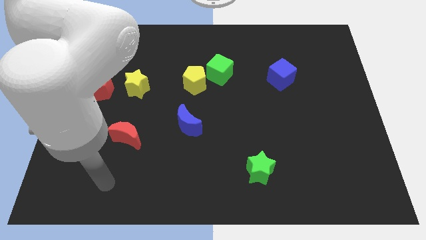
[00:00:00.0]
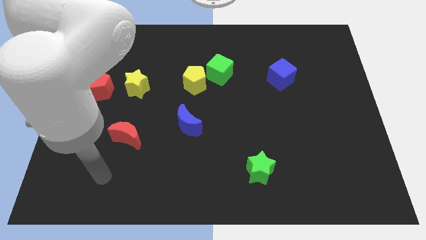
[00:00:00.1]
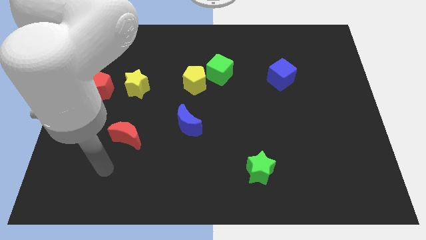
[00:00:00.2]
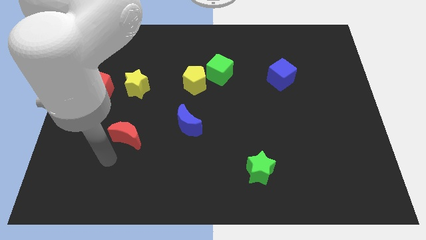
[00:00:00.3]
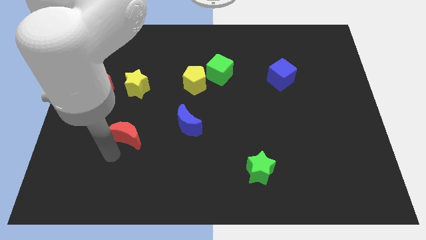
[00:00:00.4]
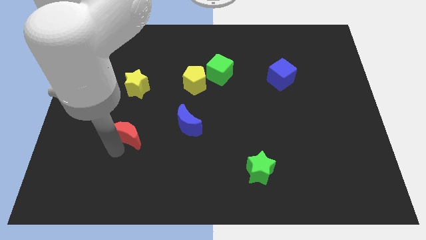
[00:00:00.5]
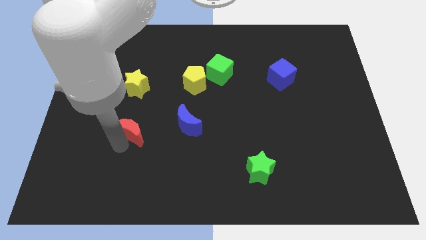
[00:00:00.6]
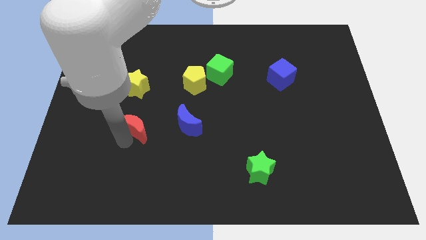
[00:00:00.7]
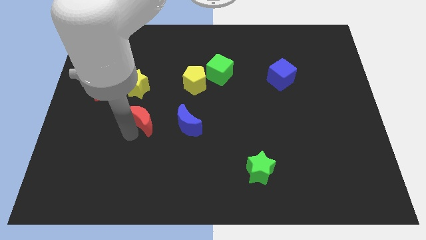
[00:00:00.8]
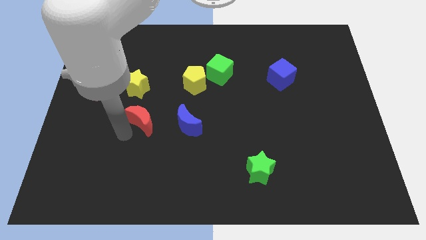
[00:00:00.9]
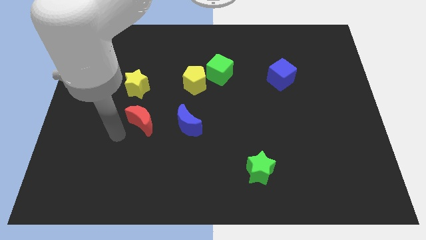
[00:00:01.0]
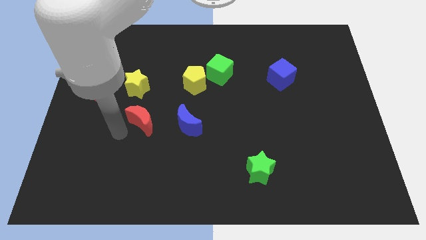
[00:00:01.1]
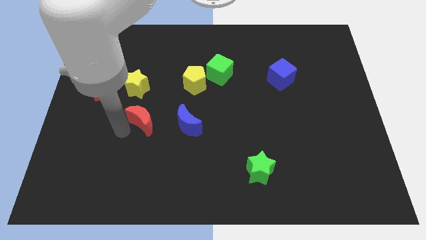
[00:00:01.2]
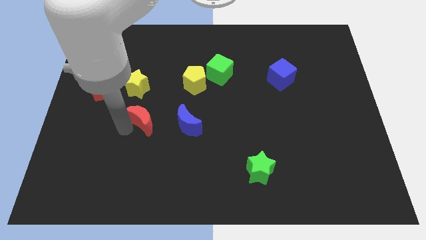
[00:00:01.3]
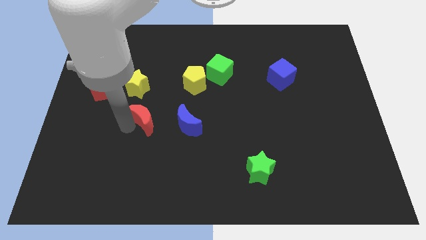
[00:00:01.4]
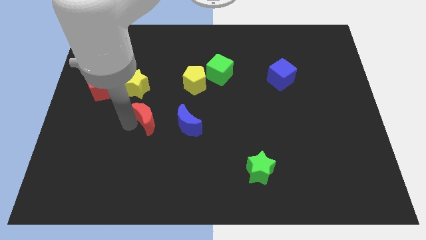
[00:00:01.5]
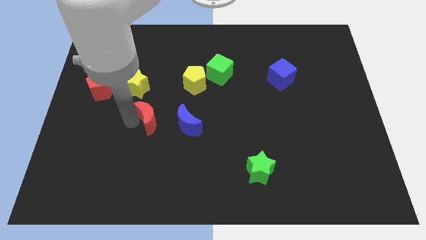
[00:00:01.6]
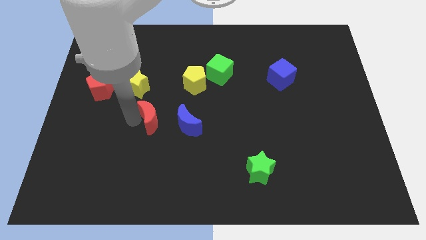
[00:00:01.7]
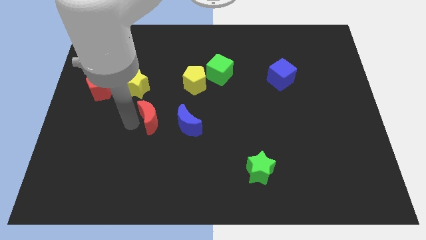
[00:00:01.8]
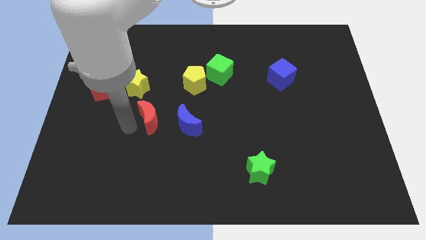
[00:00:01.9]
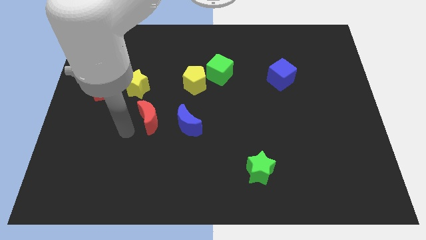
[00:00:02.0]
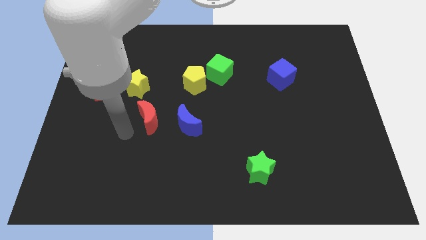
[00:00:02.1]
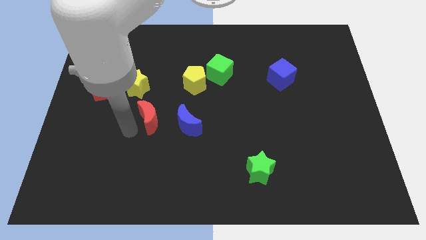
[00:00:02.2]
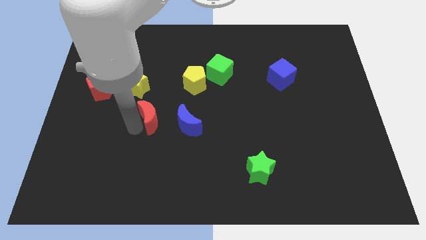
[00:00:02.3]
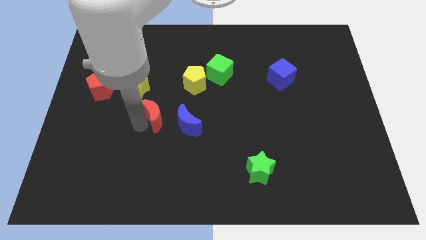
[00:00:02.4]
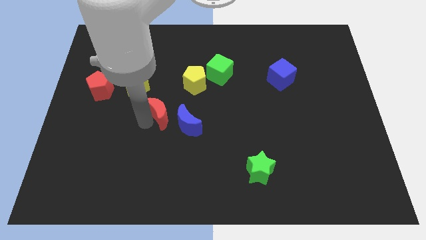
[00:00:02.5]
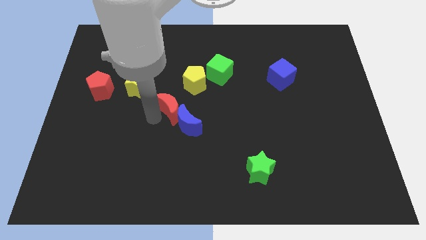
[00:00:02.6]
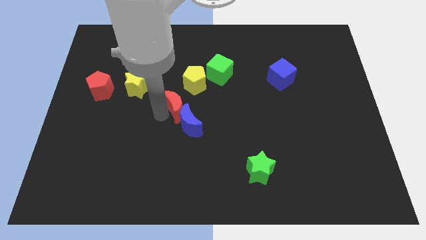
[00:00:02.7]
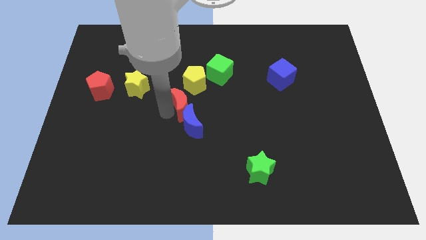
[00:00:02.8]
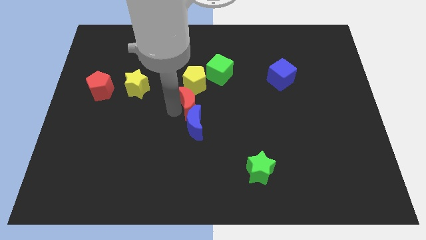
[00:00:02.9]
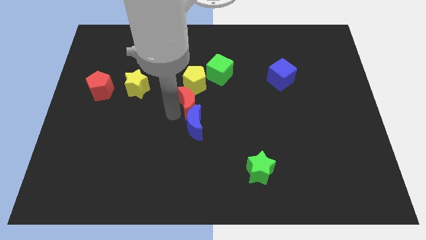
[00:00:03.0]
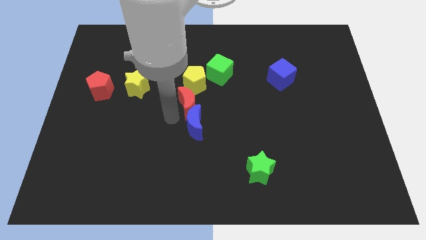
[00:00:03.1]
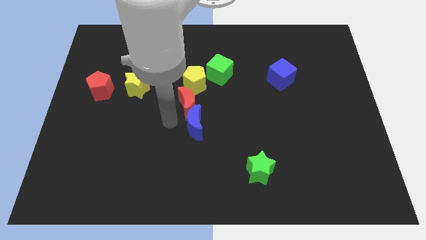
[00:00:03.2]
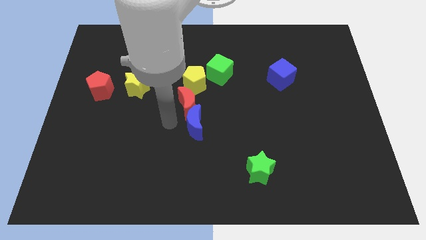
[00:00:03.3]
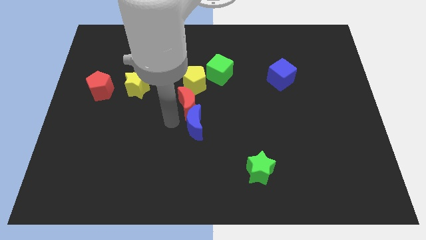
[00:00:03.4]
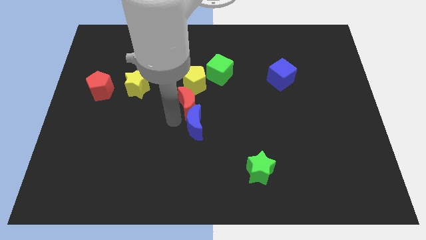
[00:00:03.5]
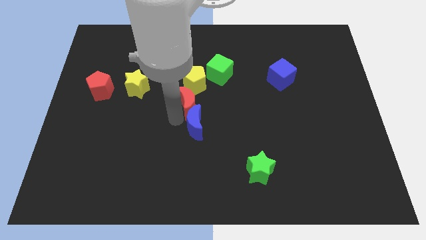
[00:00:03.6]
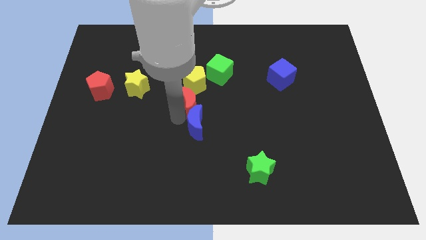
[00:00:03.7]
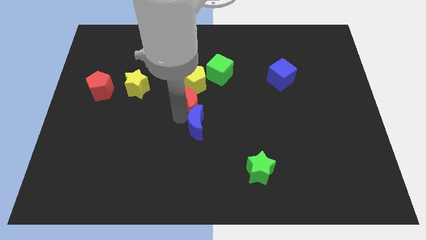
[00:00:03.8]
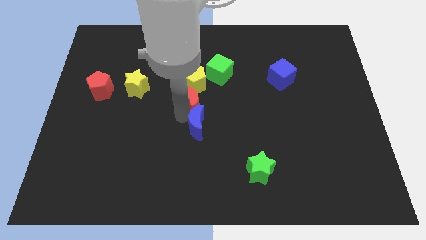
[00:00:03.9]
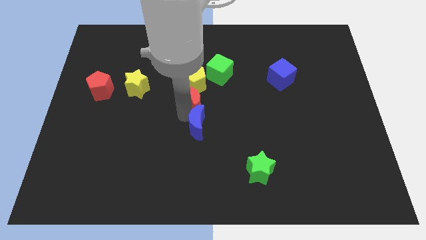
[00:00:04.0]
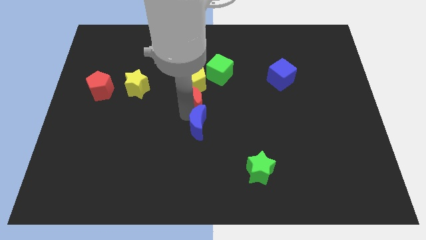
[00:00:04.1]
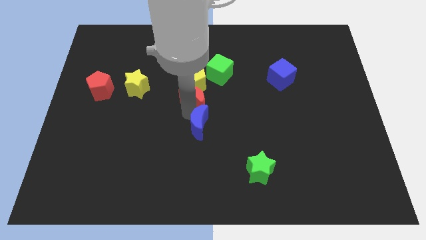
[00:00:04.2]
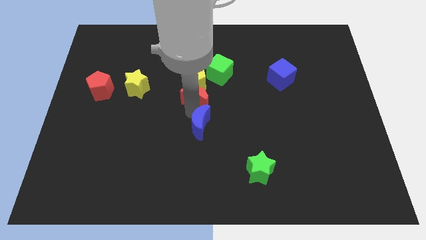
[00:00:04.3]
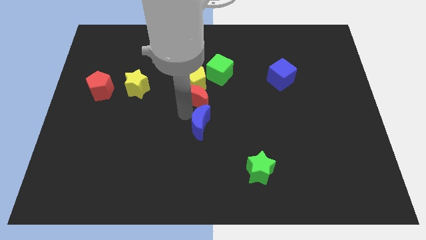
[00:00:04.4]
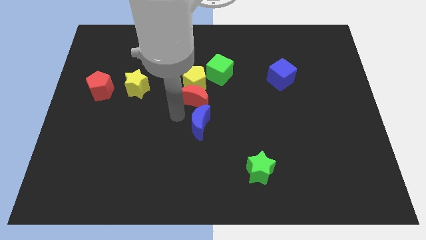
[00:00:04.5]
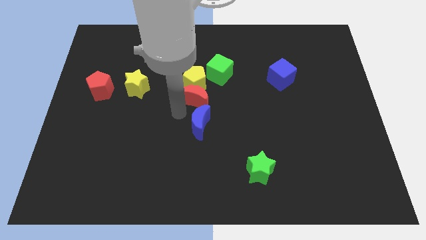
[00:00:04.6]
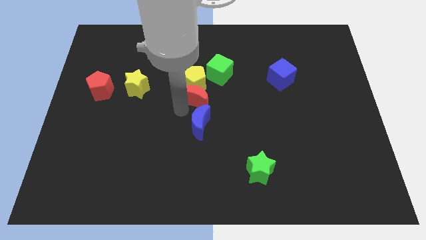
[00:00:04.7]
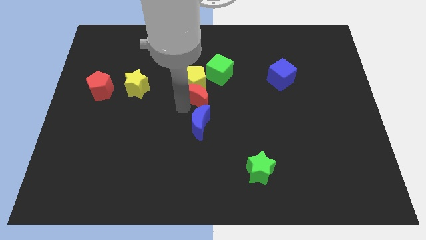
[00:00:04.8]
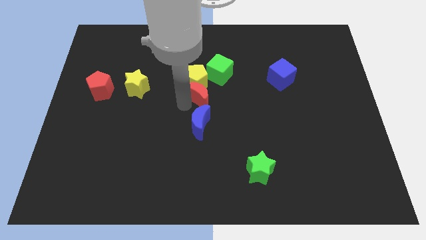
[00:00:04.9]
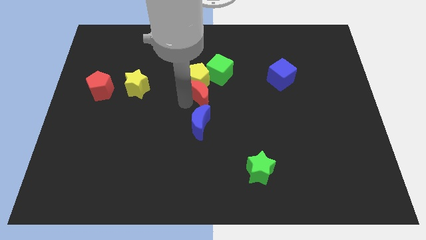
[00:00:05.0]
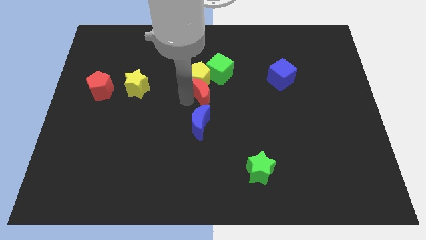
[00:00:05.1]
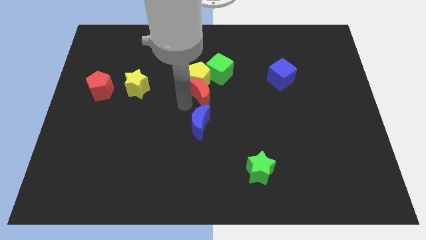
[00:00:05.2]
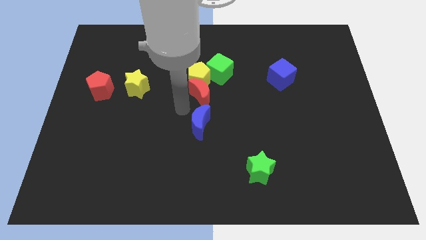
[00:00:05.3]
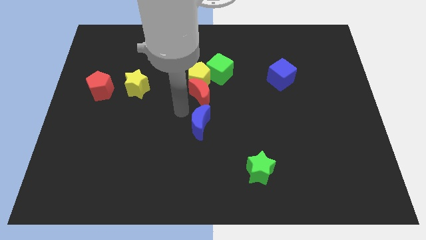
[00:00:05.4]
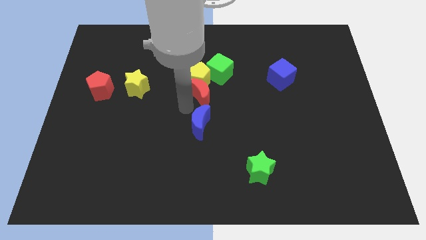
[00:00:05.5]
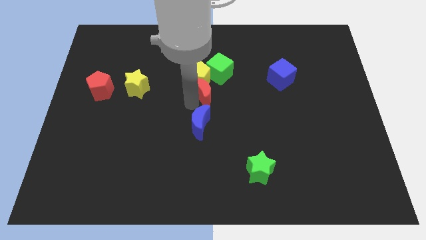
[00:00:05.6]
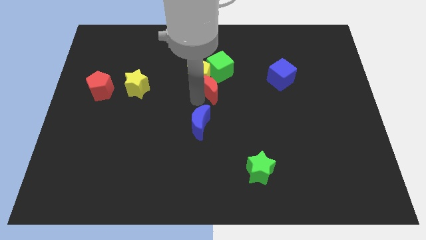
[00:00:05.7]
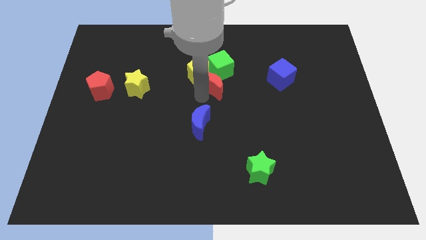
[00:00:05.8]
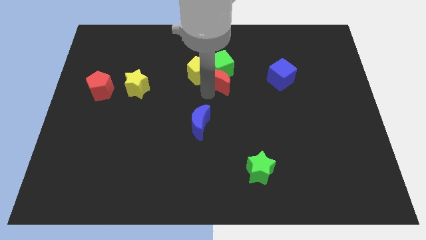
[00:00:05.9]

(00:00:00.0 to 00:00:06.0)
put the red moon to the green cube
